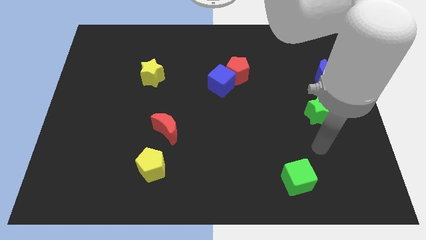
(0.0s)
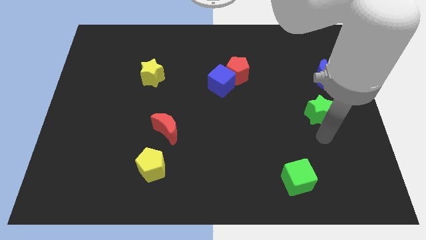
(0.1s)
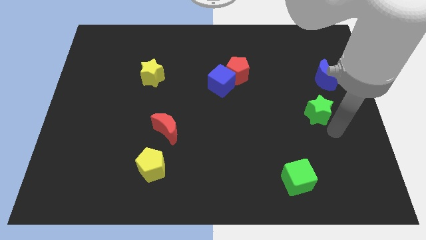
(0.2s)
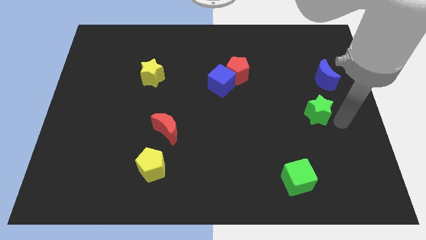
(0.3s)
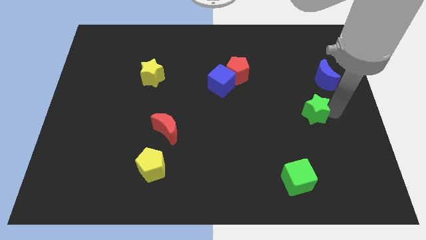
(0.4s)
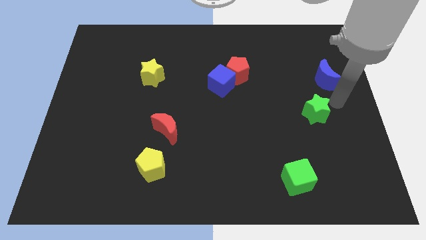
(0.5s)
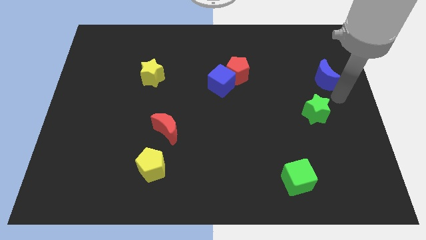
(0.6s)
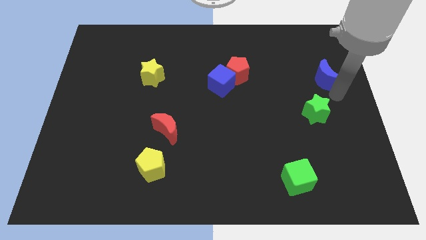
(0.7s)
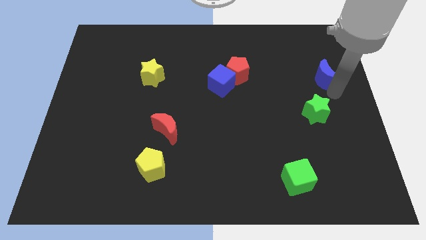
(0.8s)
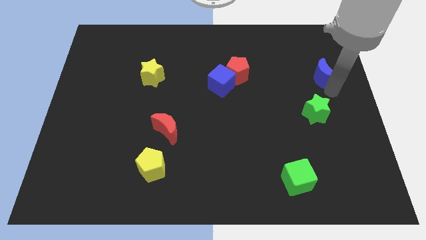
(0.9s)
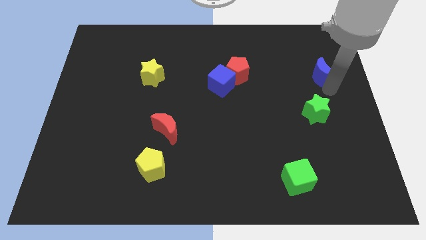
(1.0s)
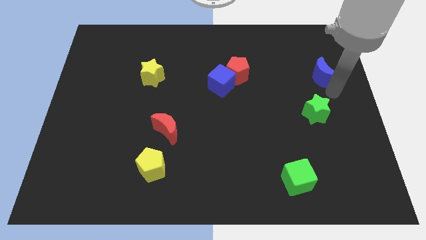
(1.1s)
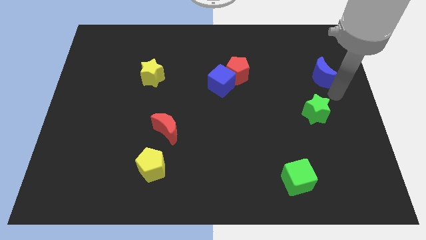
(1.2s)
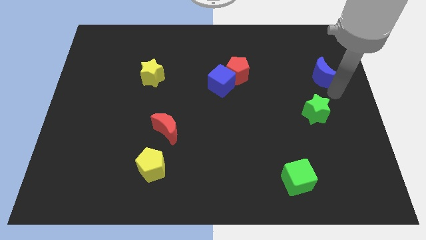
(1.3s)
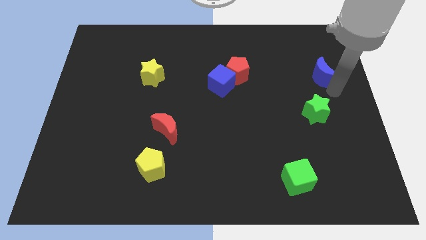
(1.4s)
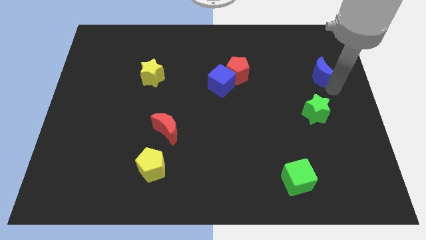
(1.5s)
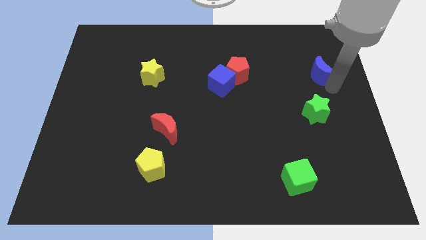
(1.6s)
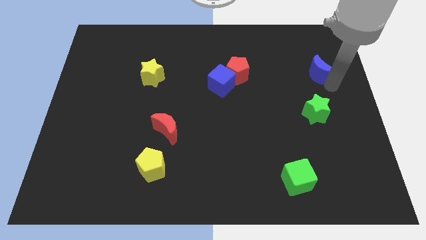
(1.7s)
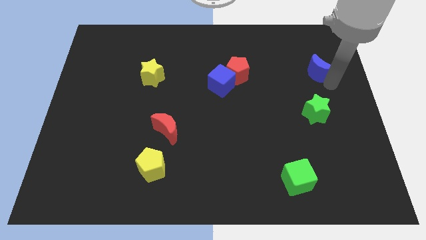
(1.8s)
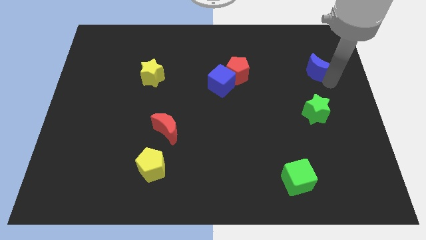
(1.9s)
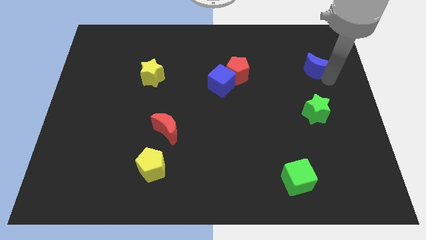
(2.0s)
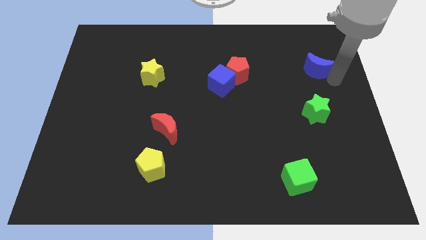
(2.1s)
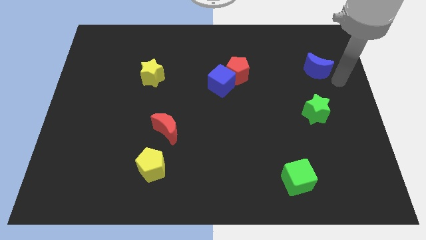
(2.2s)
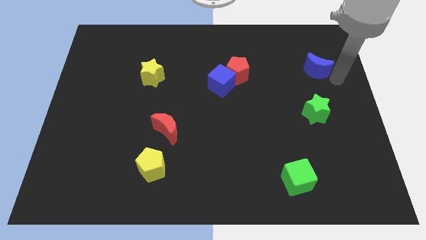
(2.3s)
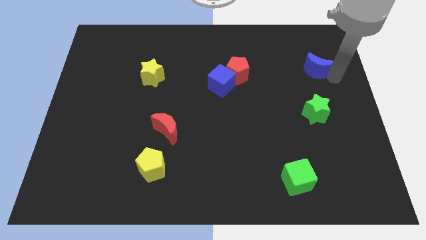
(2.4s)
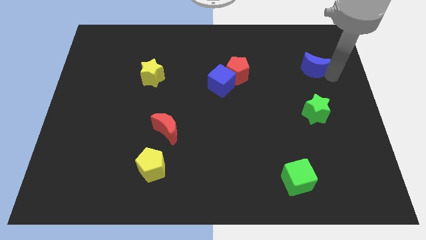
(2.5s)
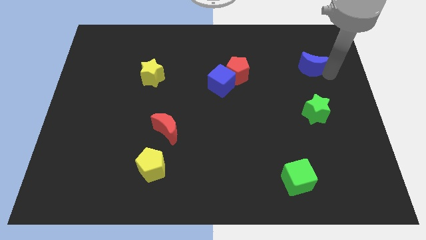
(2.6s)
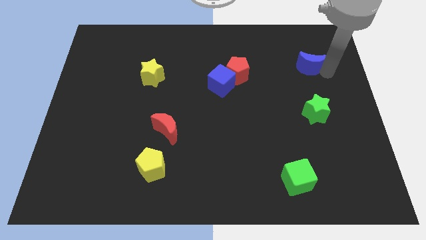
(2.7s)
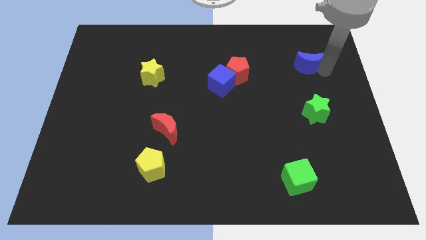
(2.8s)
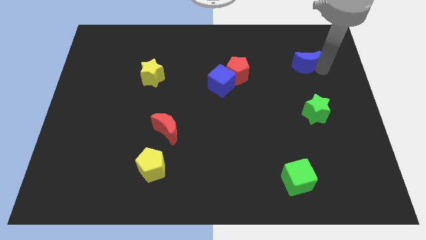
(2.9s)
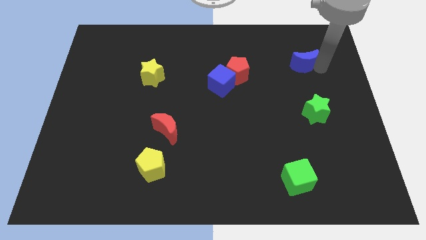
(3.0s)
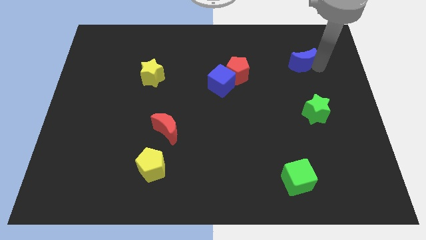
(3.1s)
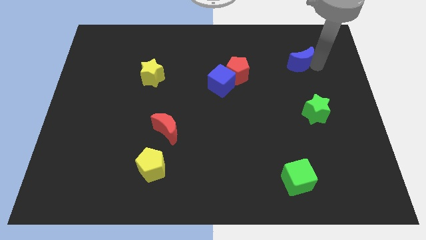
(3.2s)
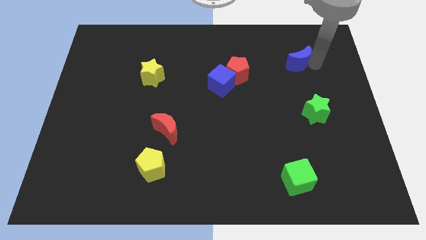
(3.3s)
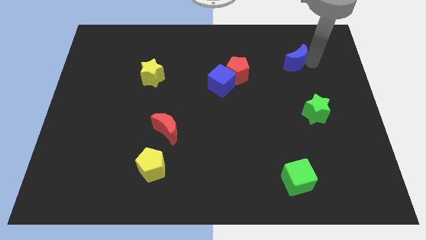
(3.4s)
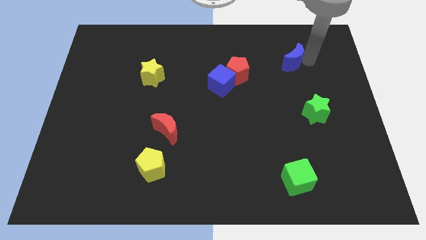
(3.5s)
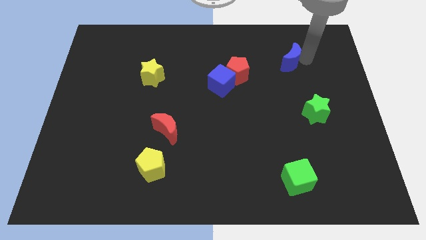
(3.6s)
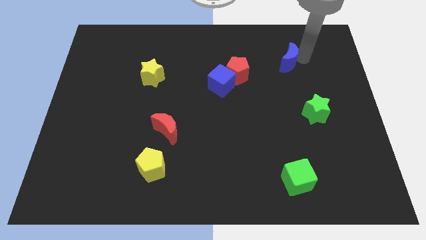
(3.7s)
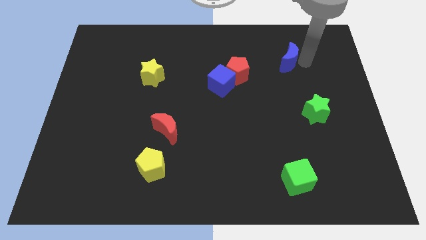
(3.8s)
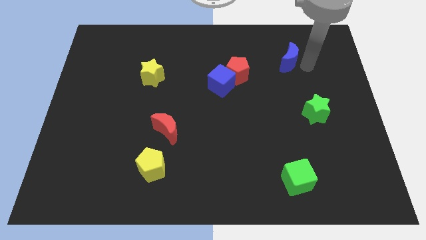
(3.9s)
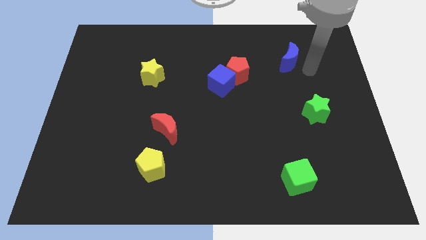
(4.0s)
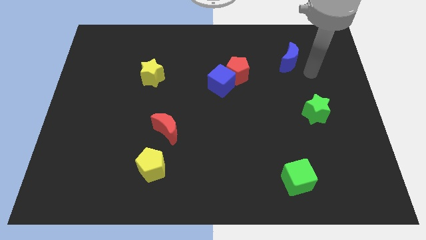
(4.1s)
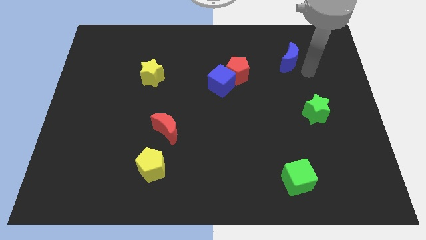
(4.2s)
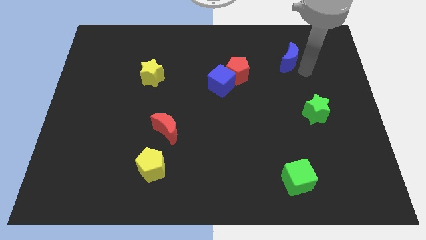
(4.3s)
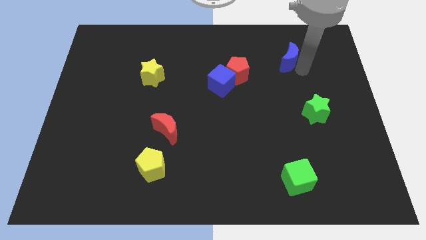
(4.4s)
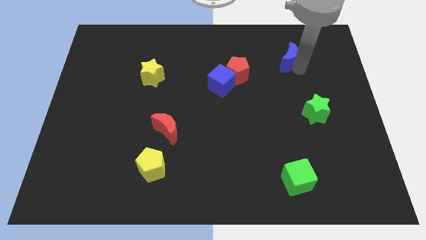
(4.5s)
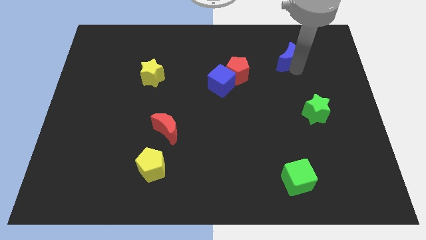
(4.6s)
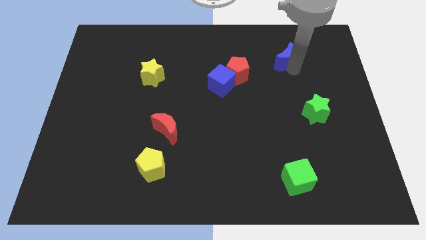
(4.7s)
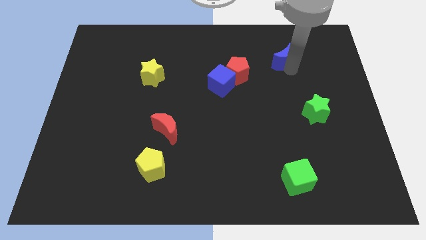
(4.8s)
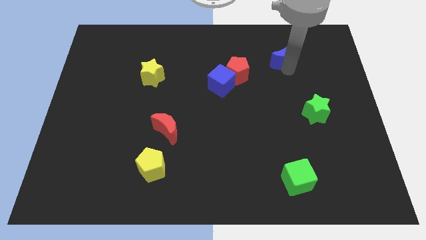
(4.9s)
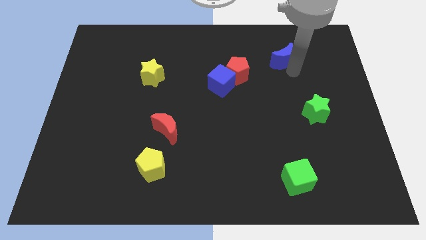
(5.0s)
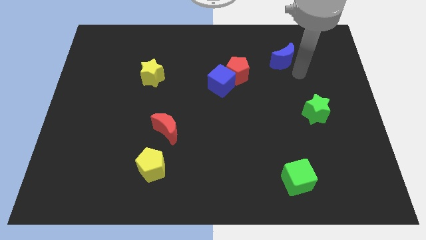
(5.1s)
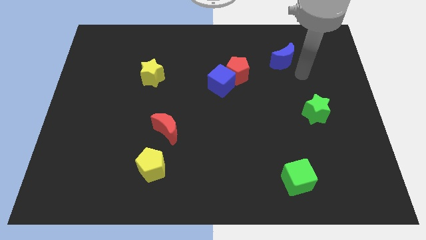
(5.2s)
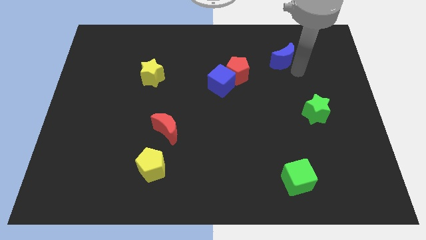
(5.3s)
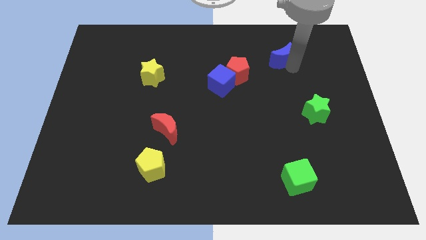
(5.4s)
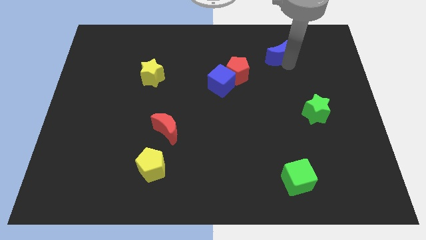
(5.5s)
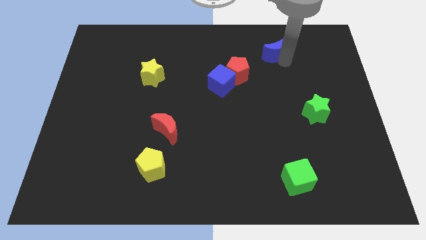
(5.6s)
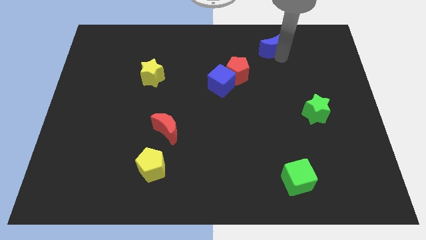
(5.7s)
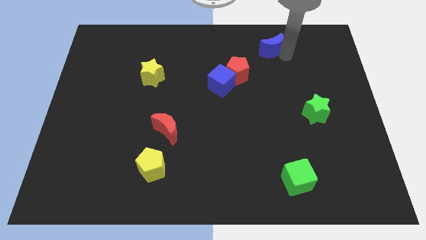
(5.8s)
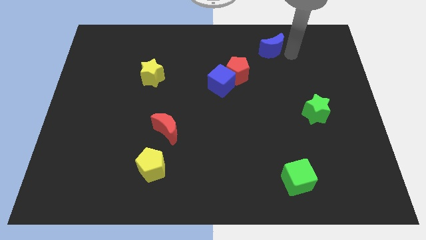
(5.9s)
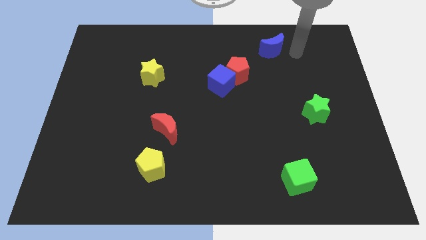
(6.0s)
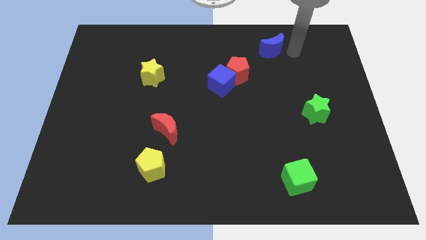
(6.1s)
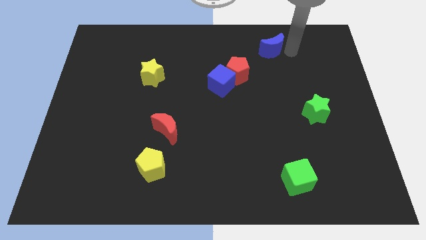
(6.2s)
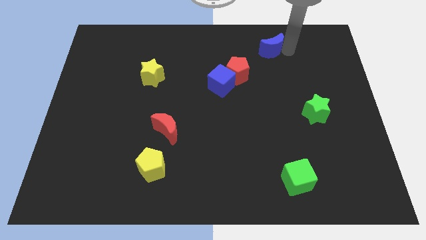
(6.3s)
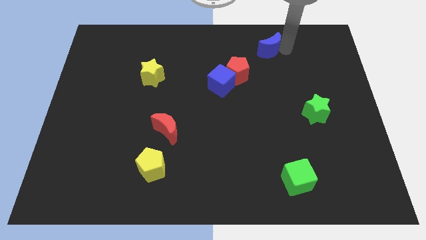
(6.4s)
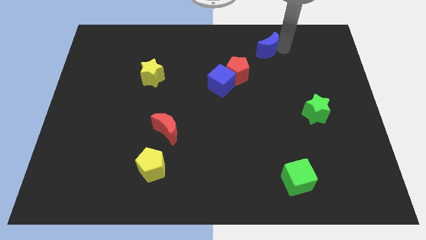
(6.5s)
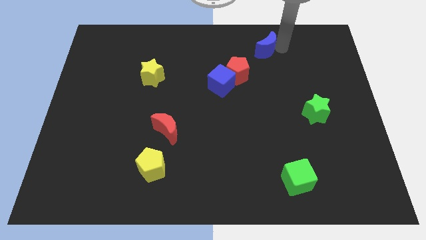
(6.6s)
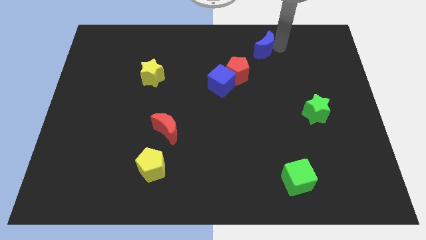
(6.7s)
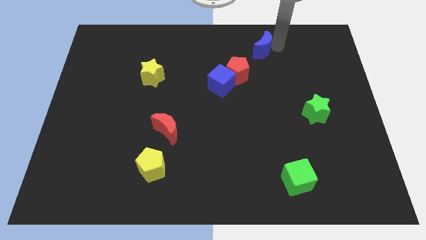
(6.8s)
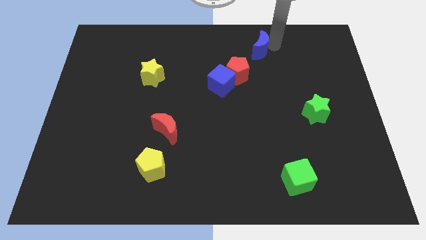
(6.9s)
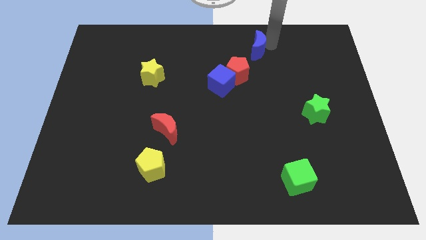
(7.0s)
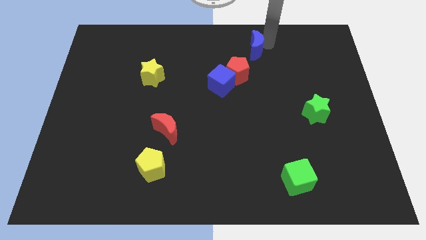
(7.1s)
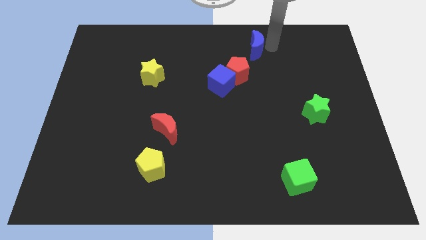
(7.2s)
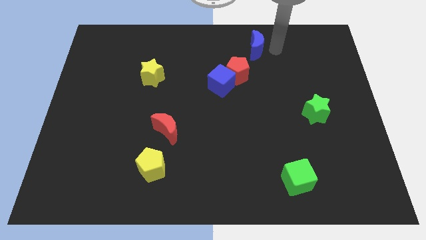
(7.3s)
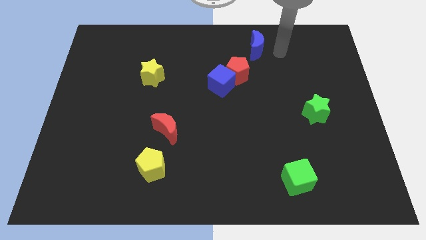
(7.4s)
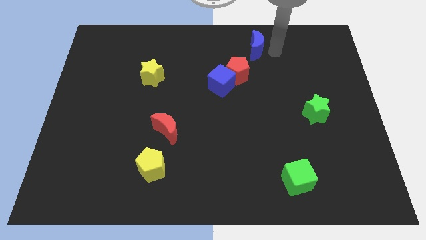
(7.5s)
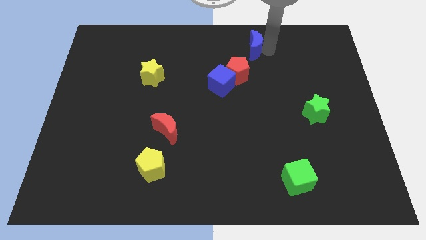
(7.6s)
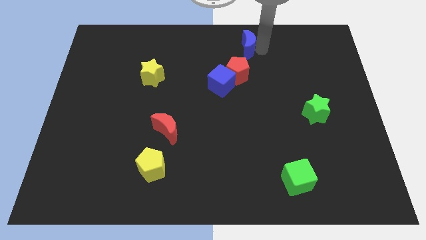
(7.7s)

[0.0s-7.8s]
put the blue moon to the top
